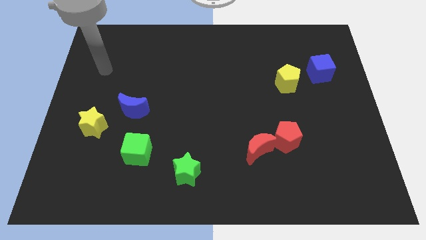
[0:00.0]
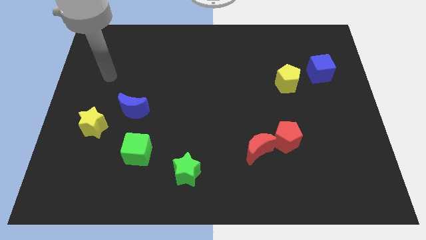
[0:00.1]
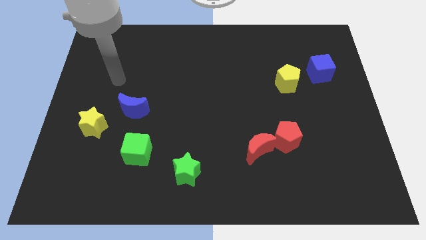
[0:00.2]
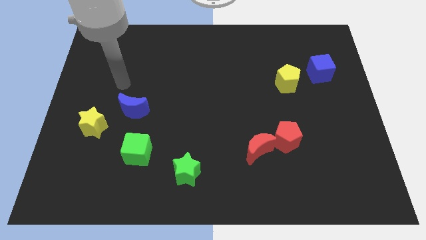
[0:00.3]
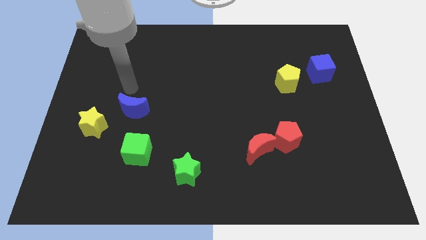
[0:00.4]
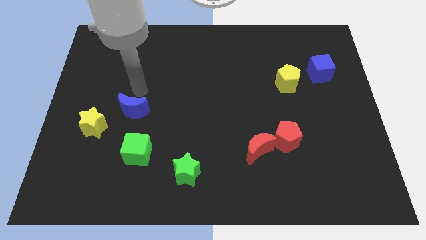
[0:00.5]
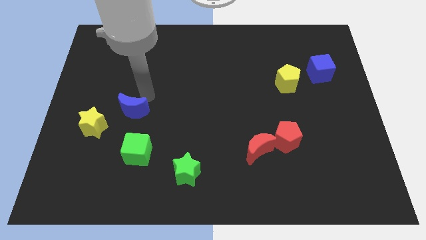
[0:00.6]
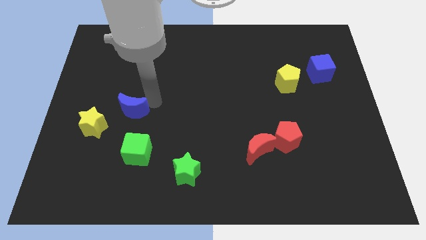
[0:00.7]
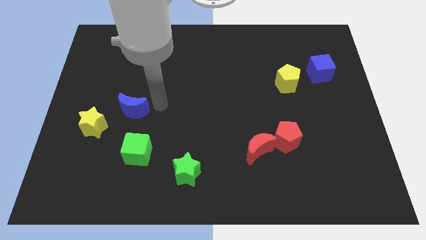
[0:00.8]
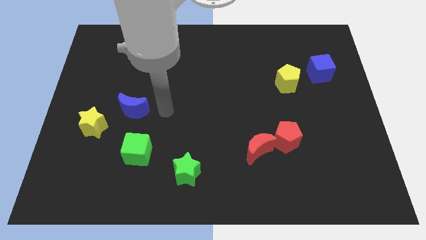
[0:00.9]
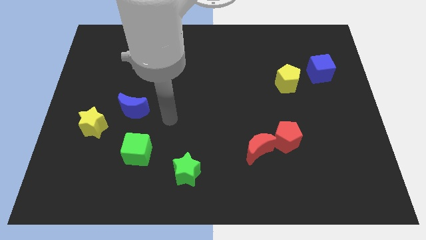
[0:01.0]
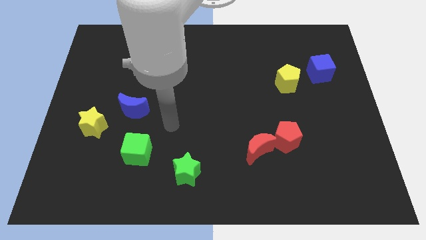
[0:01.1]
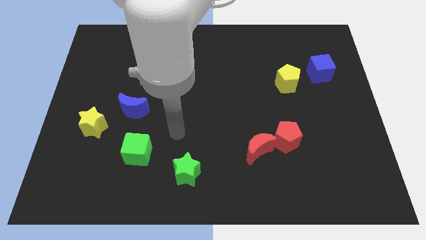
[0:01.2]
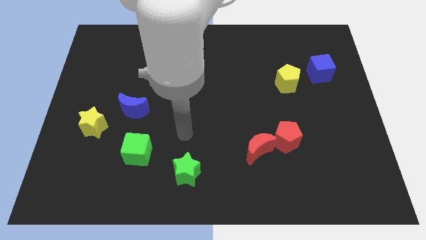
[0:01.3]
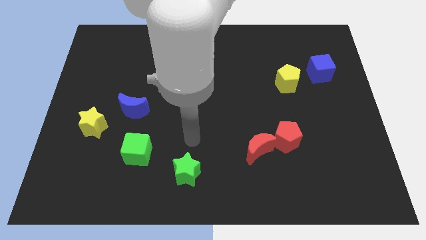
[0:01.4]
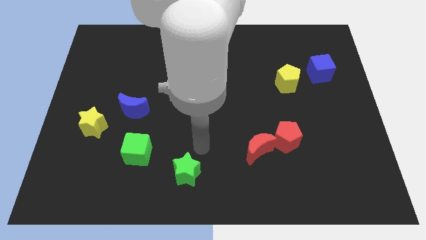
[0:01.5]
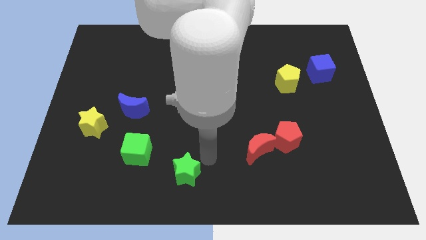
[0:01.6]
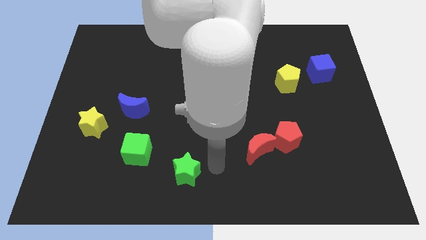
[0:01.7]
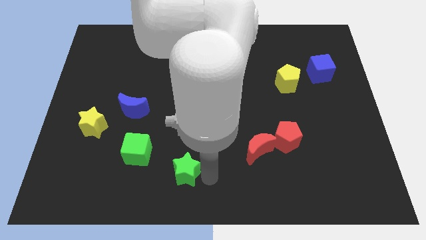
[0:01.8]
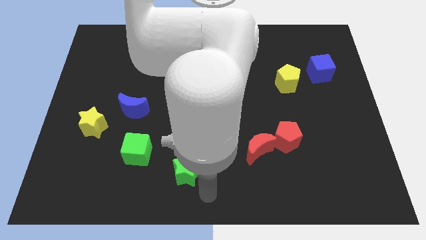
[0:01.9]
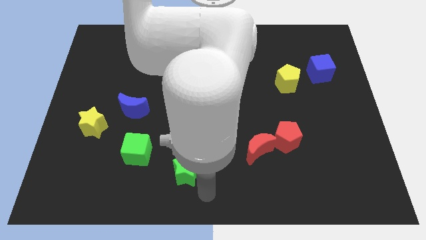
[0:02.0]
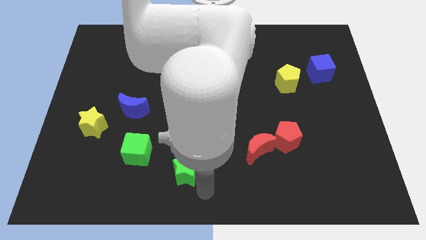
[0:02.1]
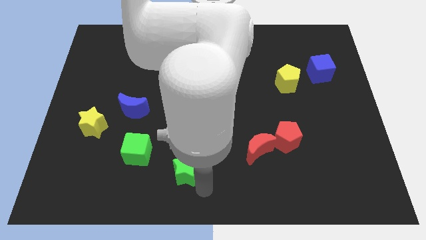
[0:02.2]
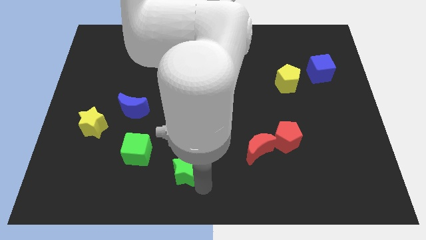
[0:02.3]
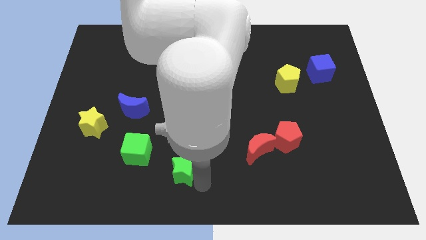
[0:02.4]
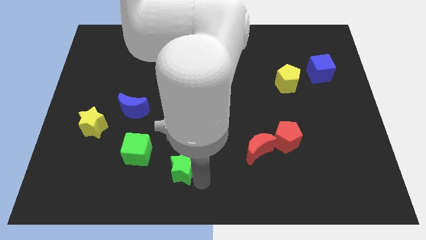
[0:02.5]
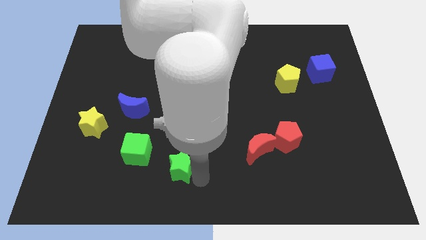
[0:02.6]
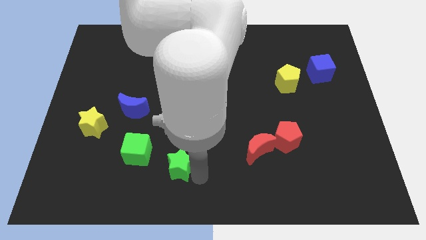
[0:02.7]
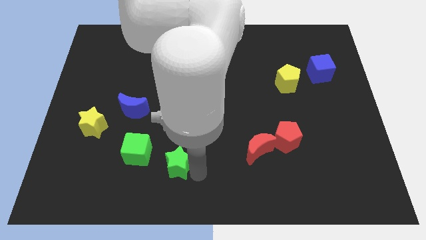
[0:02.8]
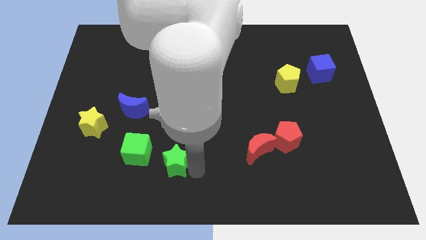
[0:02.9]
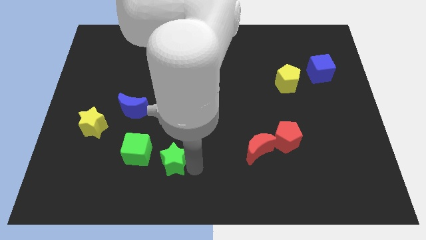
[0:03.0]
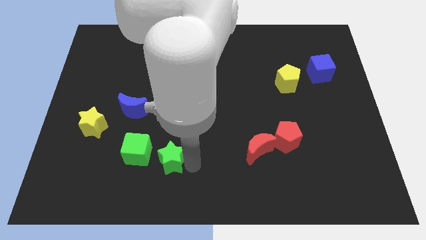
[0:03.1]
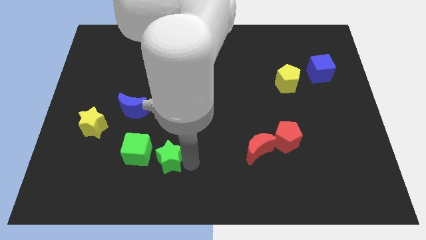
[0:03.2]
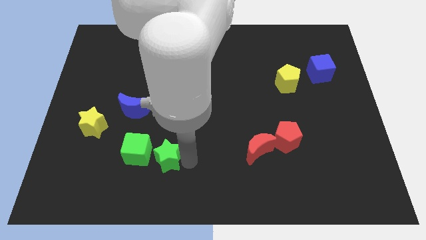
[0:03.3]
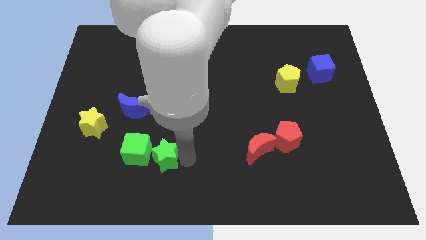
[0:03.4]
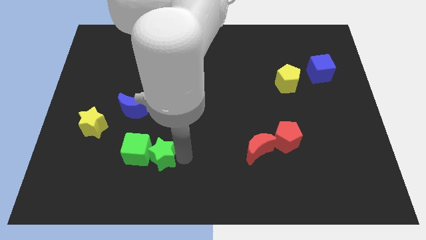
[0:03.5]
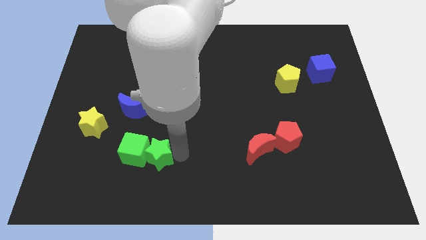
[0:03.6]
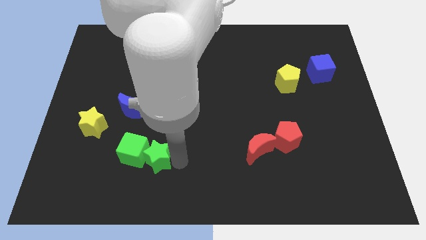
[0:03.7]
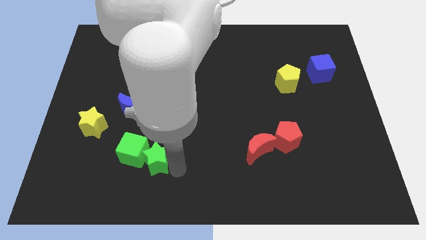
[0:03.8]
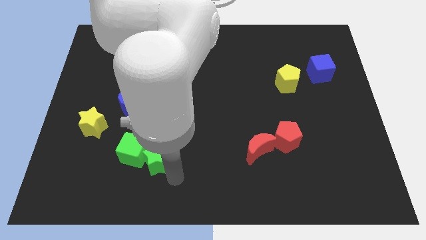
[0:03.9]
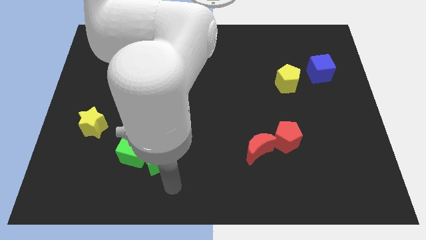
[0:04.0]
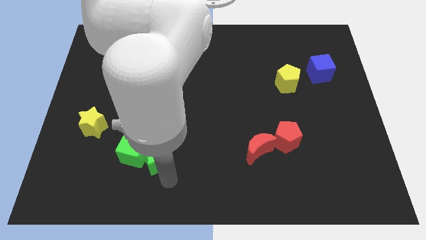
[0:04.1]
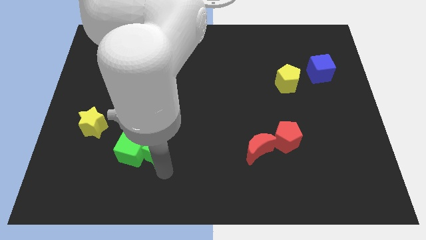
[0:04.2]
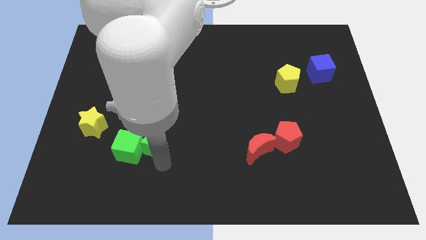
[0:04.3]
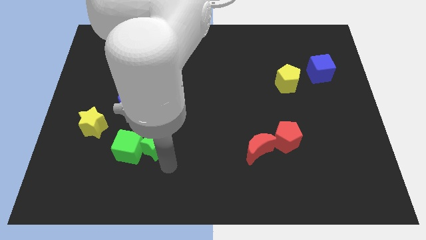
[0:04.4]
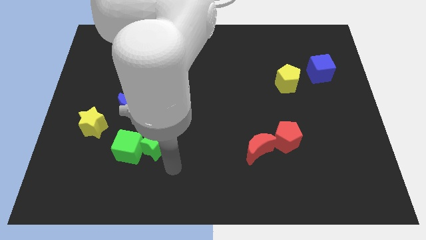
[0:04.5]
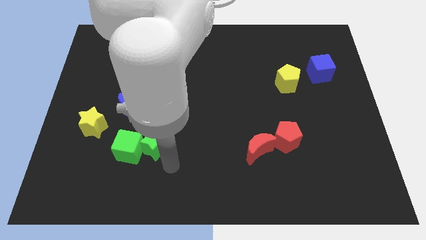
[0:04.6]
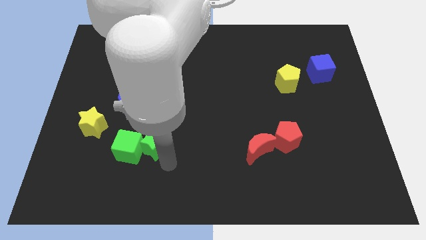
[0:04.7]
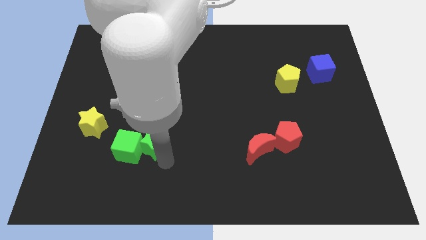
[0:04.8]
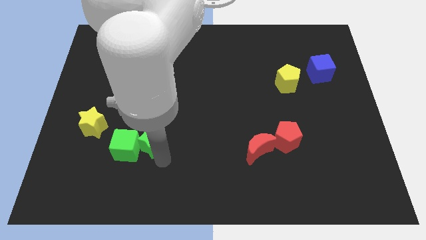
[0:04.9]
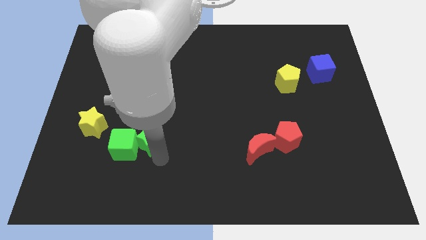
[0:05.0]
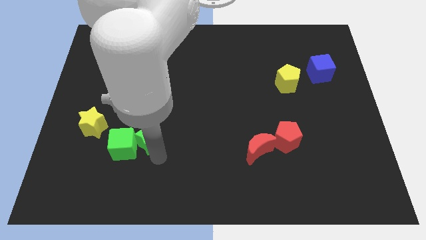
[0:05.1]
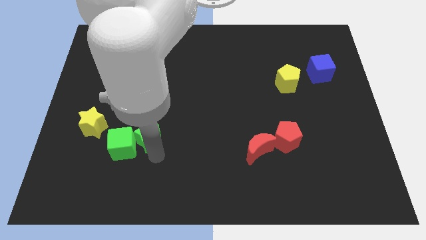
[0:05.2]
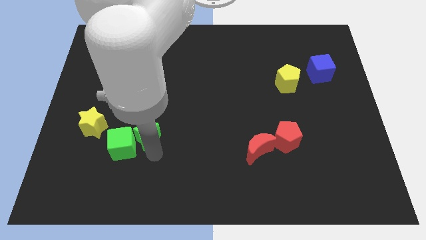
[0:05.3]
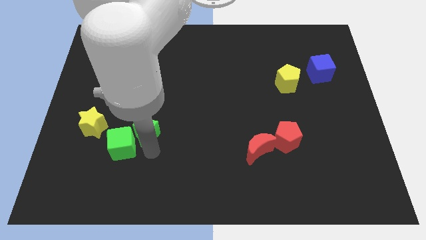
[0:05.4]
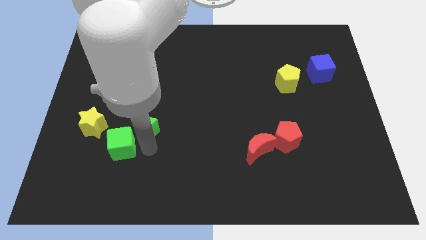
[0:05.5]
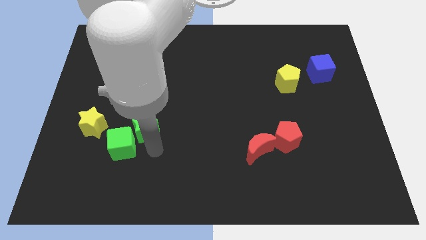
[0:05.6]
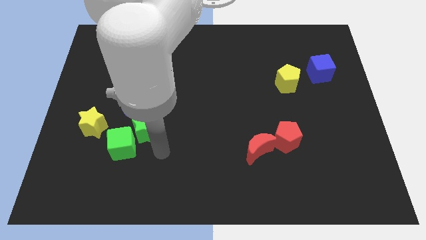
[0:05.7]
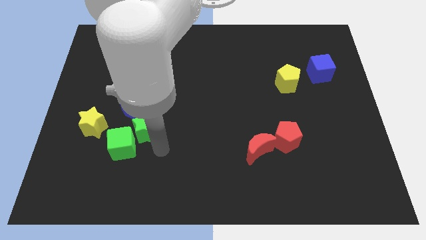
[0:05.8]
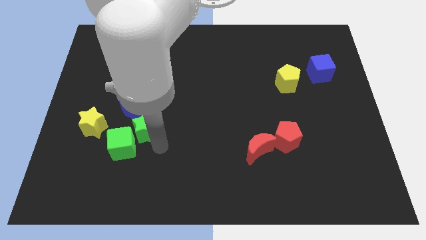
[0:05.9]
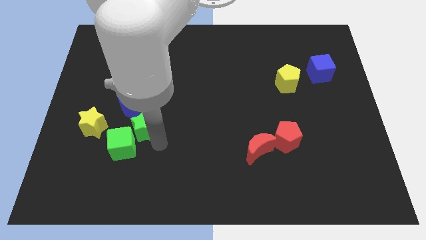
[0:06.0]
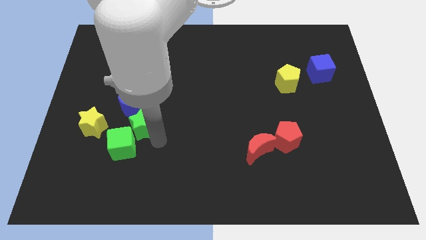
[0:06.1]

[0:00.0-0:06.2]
put the green star close to the blue moon
